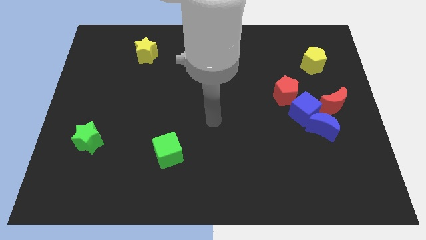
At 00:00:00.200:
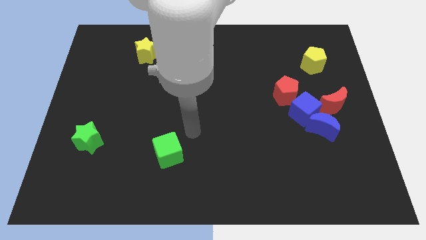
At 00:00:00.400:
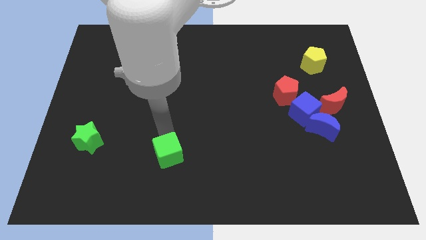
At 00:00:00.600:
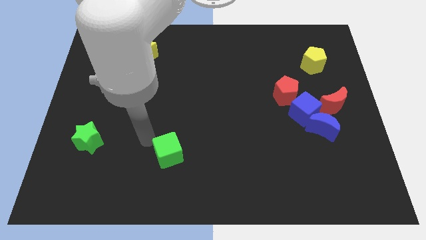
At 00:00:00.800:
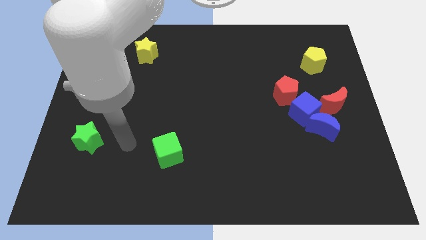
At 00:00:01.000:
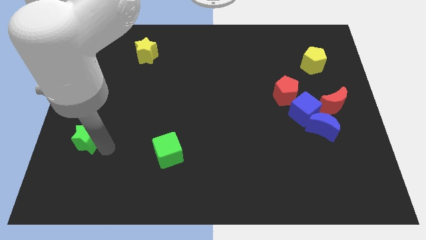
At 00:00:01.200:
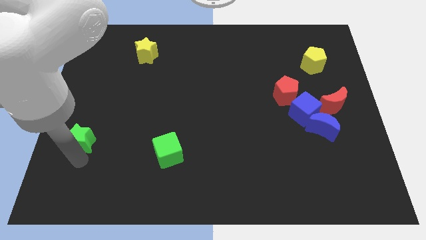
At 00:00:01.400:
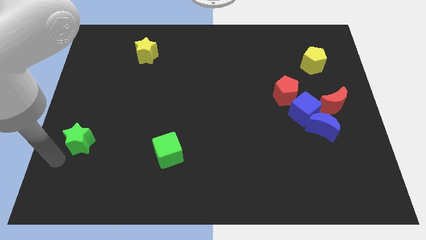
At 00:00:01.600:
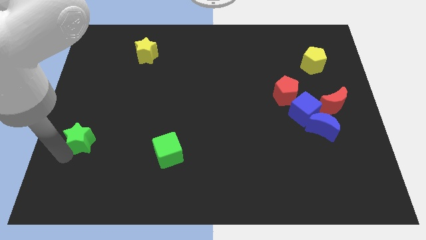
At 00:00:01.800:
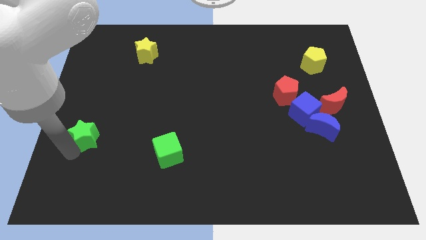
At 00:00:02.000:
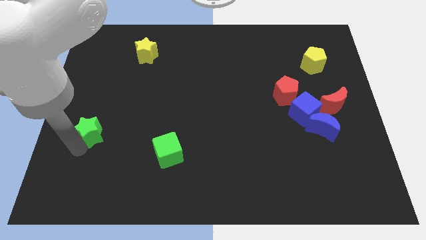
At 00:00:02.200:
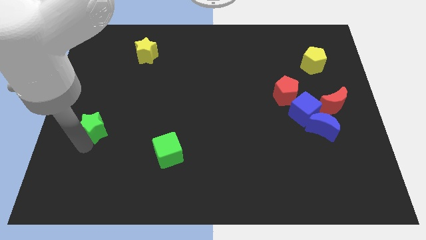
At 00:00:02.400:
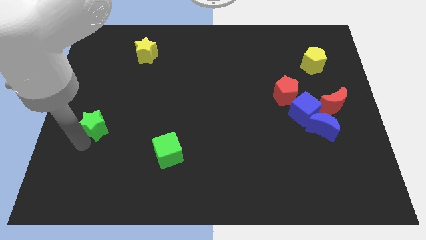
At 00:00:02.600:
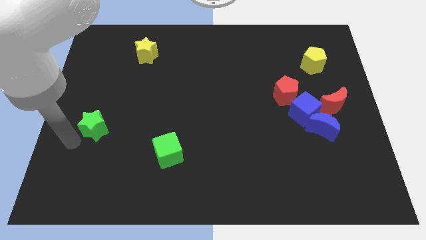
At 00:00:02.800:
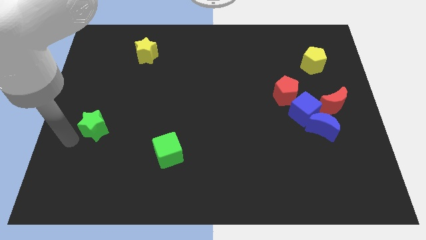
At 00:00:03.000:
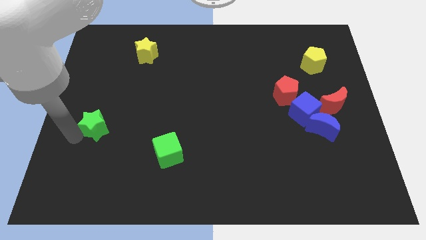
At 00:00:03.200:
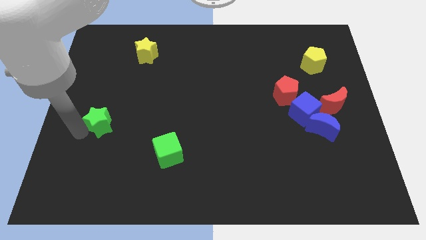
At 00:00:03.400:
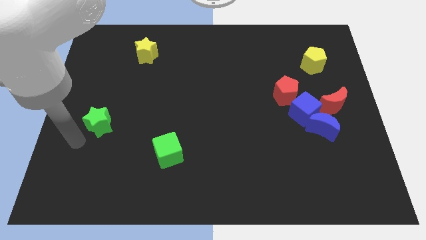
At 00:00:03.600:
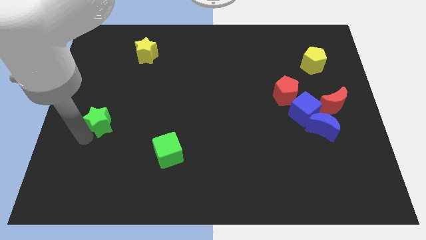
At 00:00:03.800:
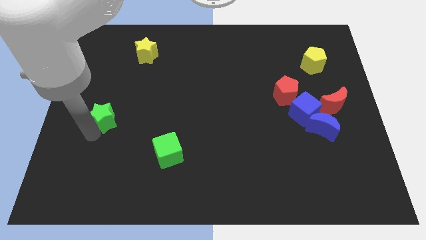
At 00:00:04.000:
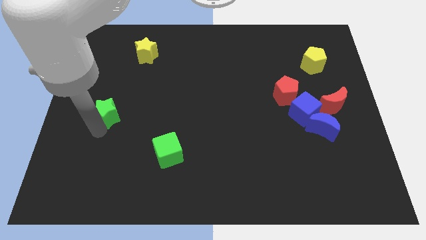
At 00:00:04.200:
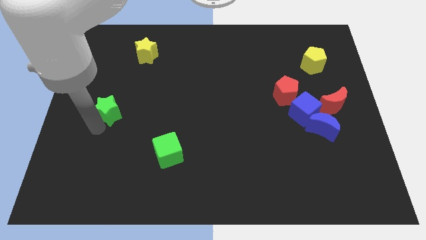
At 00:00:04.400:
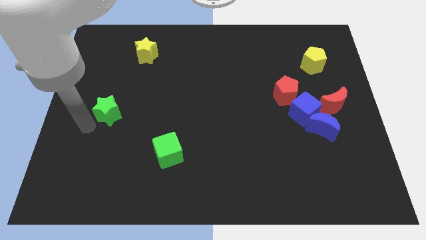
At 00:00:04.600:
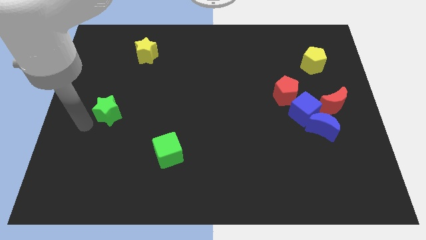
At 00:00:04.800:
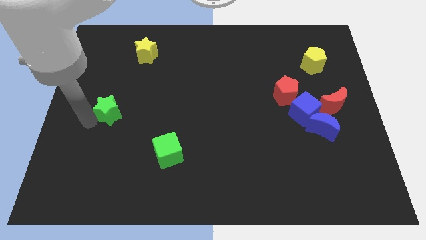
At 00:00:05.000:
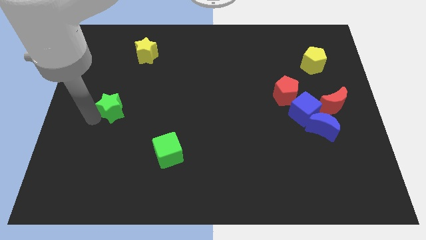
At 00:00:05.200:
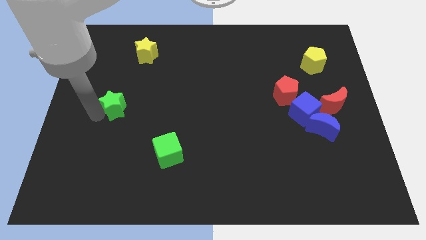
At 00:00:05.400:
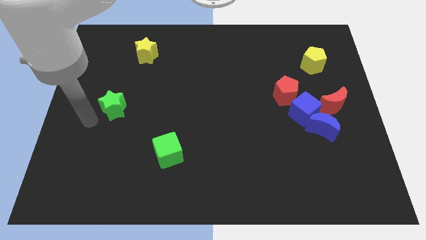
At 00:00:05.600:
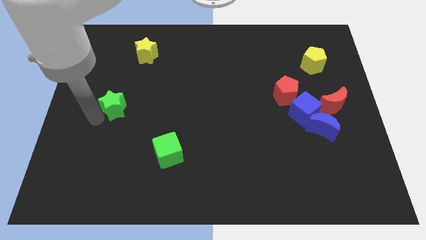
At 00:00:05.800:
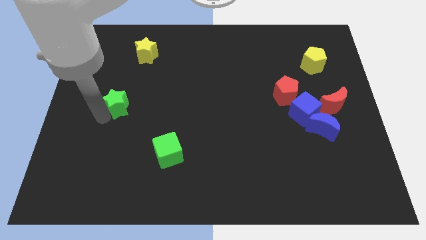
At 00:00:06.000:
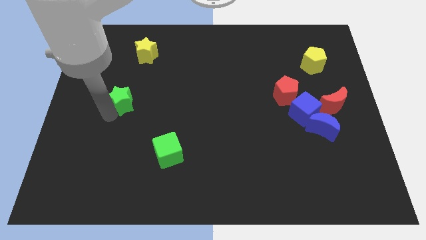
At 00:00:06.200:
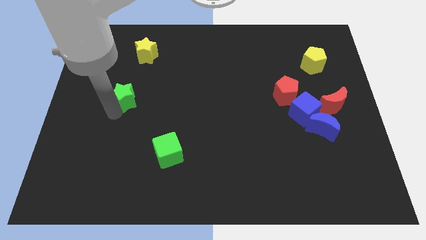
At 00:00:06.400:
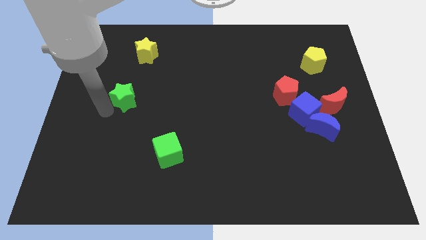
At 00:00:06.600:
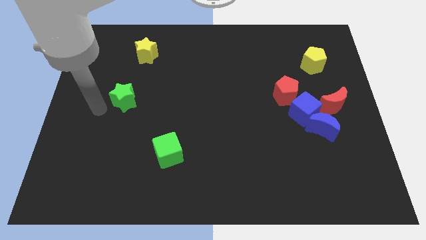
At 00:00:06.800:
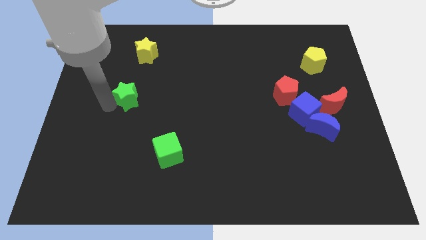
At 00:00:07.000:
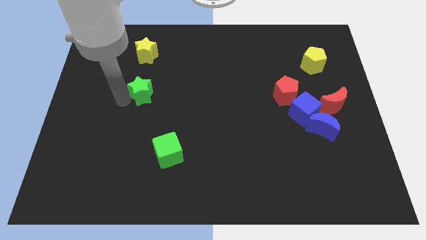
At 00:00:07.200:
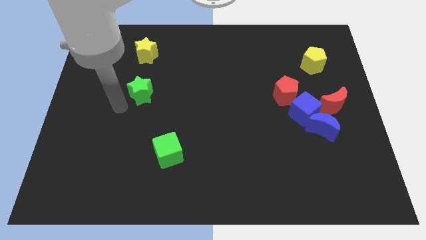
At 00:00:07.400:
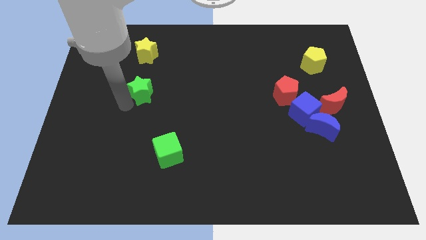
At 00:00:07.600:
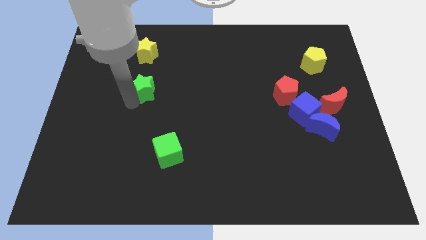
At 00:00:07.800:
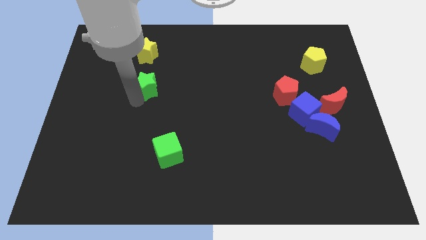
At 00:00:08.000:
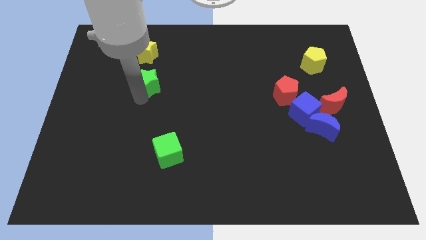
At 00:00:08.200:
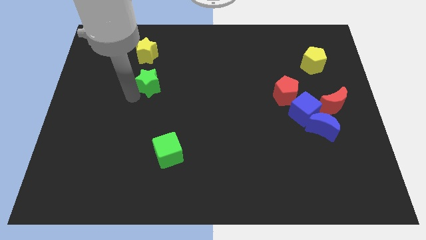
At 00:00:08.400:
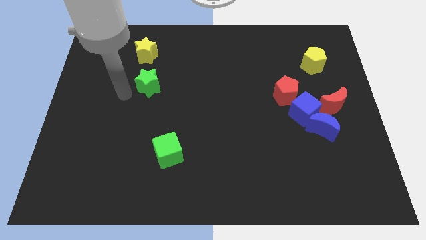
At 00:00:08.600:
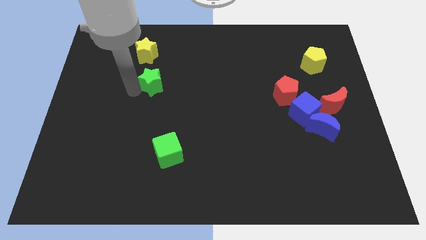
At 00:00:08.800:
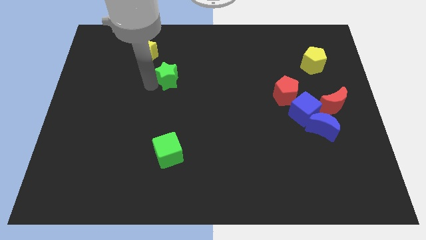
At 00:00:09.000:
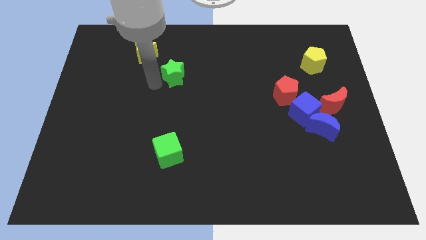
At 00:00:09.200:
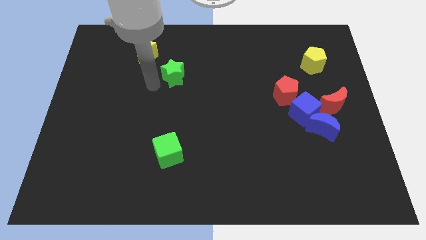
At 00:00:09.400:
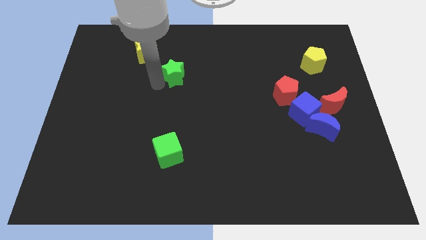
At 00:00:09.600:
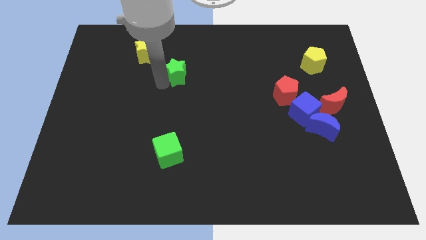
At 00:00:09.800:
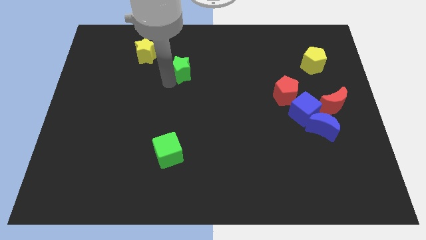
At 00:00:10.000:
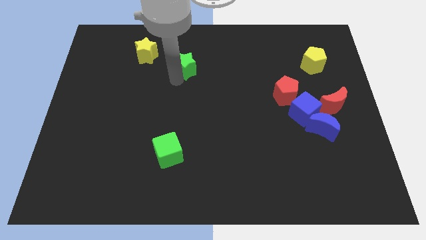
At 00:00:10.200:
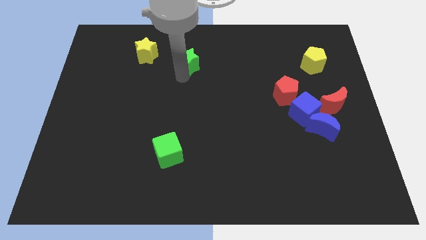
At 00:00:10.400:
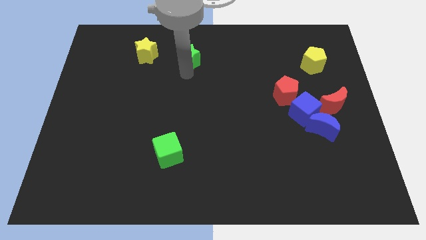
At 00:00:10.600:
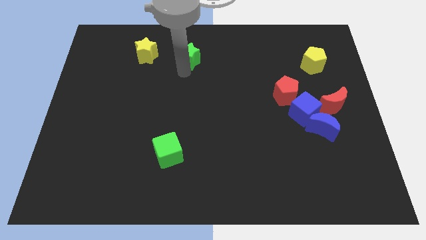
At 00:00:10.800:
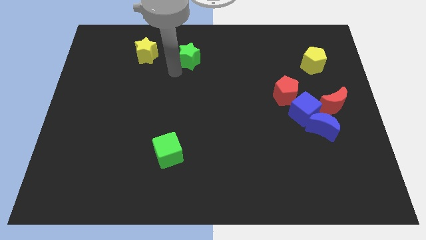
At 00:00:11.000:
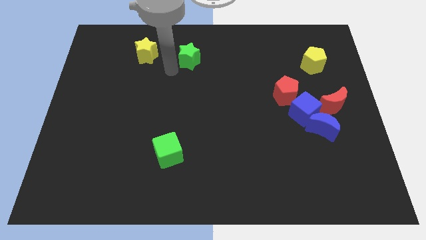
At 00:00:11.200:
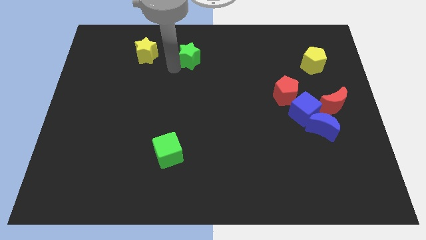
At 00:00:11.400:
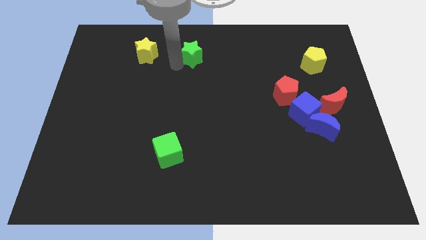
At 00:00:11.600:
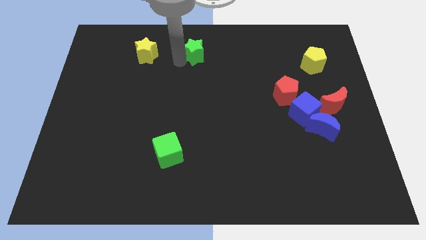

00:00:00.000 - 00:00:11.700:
push the green star to the top side
